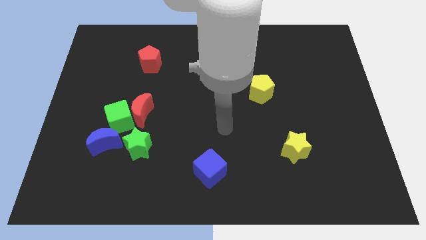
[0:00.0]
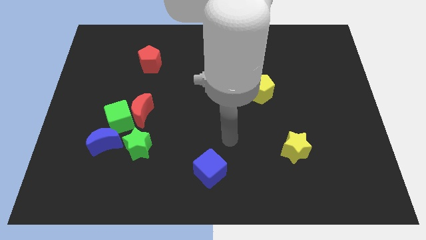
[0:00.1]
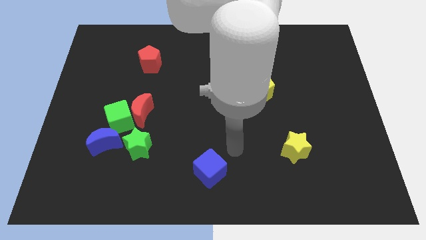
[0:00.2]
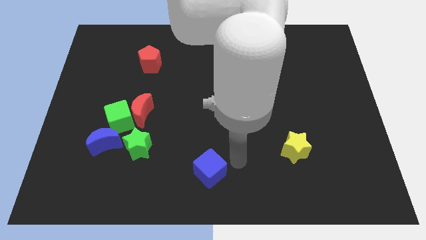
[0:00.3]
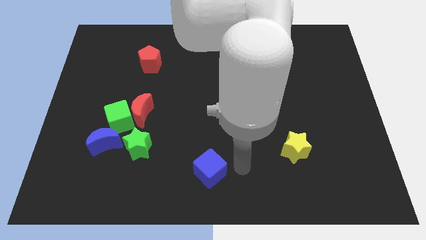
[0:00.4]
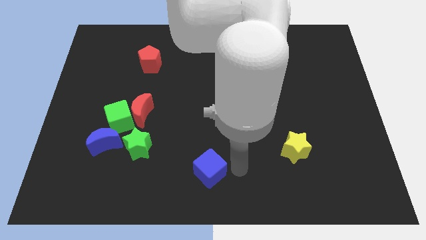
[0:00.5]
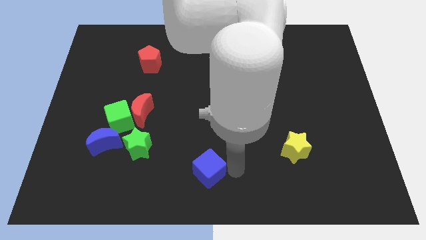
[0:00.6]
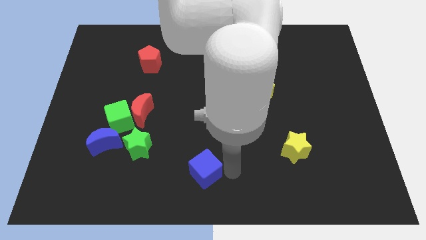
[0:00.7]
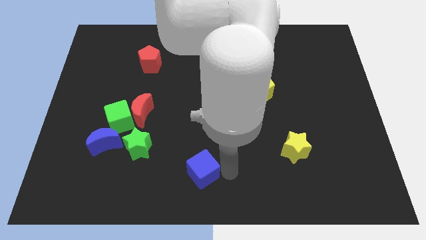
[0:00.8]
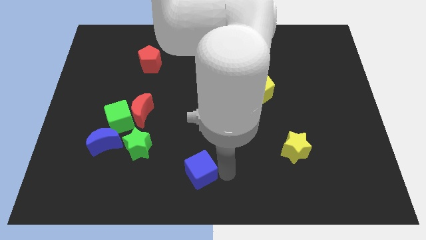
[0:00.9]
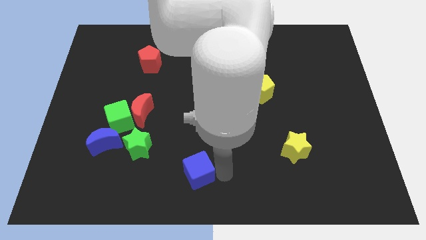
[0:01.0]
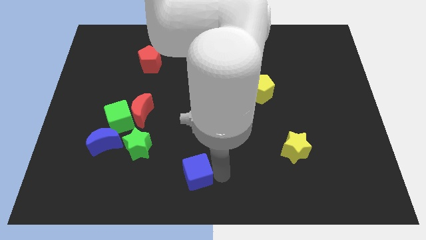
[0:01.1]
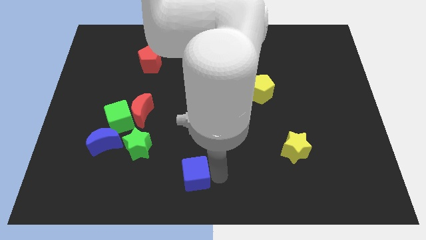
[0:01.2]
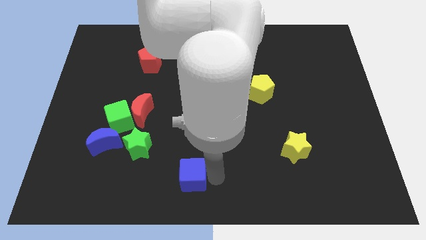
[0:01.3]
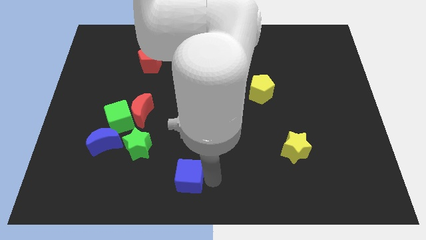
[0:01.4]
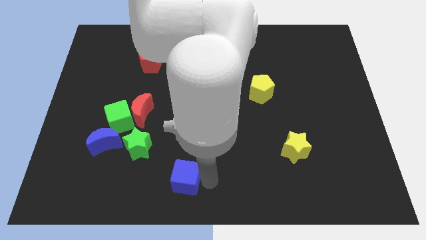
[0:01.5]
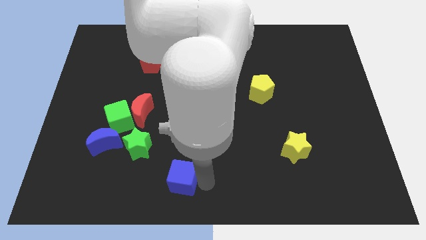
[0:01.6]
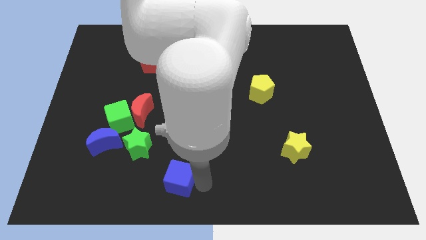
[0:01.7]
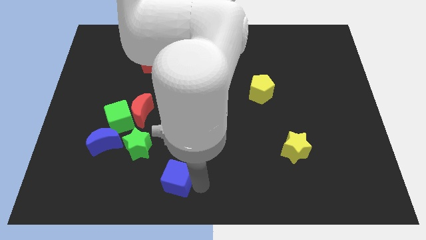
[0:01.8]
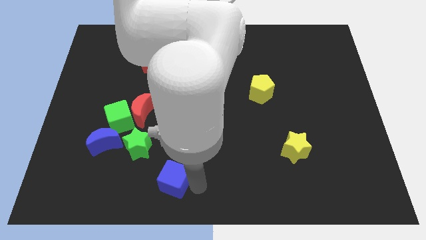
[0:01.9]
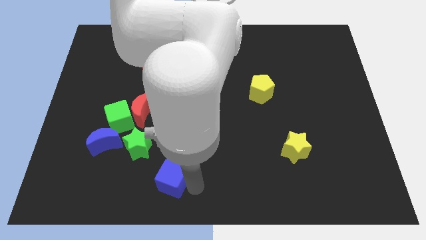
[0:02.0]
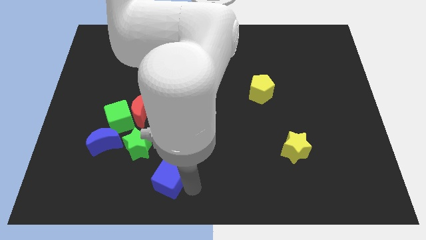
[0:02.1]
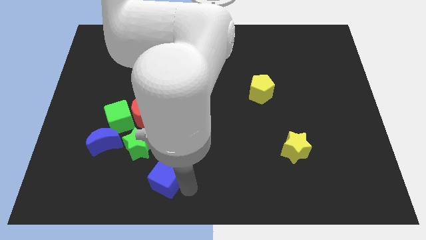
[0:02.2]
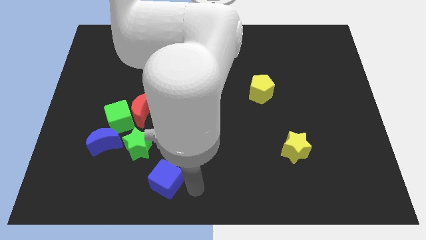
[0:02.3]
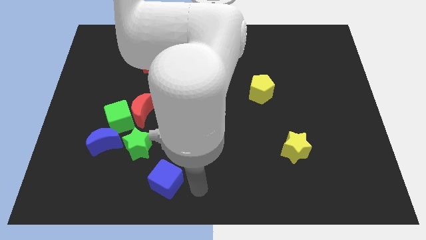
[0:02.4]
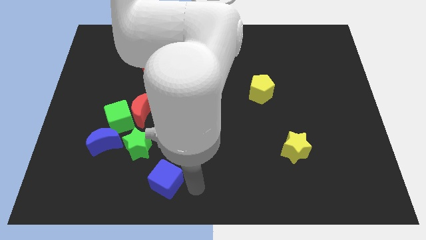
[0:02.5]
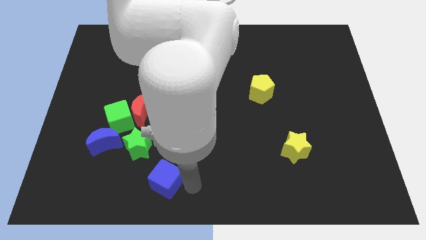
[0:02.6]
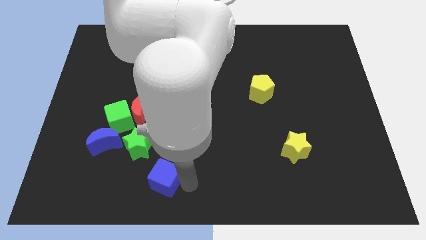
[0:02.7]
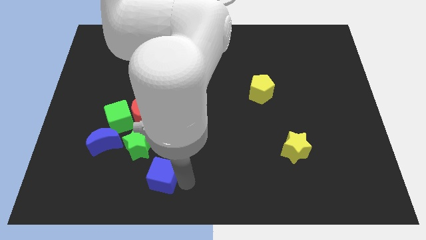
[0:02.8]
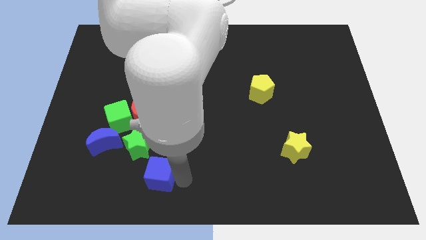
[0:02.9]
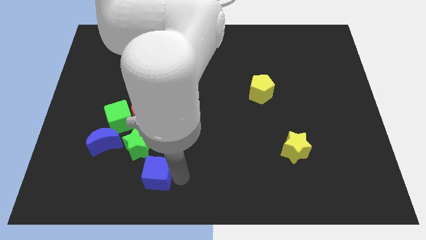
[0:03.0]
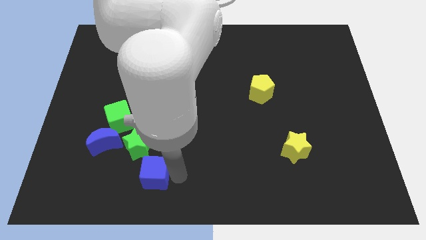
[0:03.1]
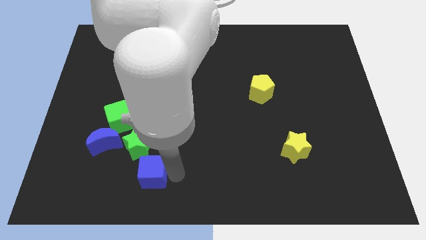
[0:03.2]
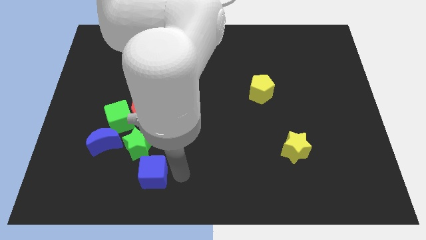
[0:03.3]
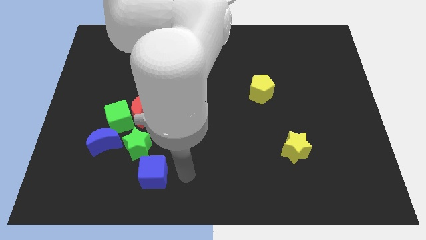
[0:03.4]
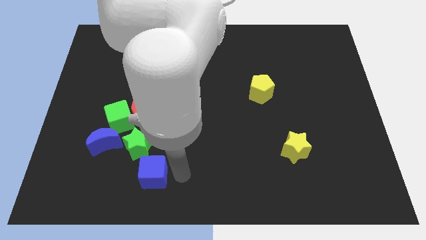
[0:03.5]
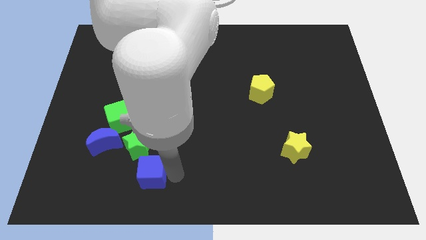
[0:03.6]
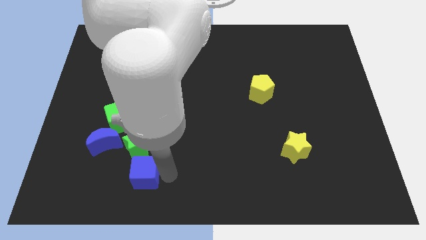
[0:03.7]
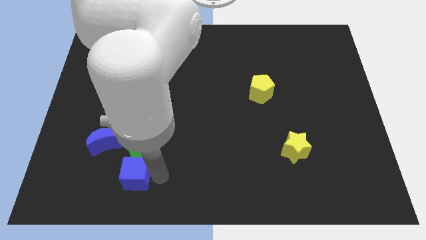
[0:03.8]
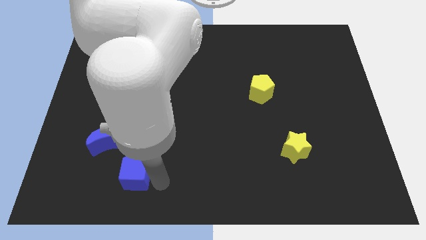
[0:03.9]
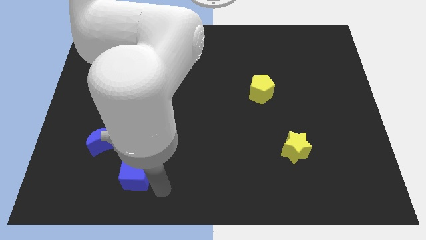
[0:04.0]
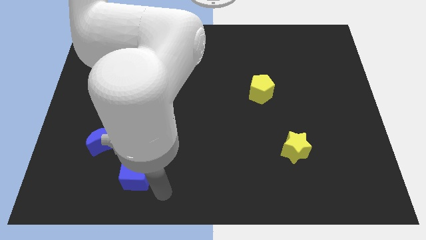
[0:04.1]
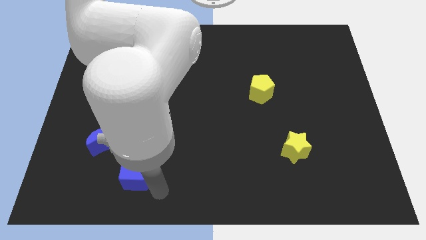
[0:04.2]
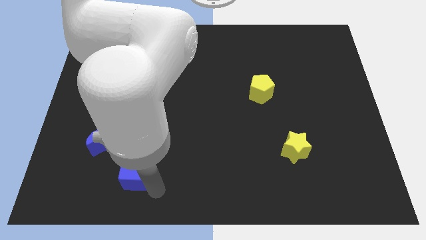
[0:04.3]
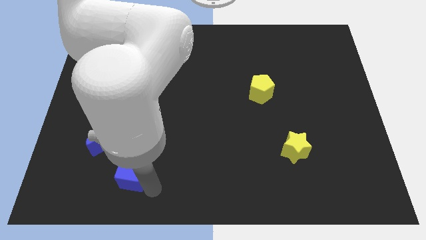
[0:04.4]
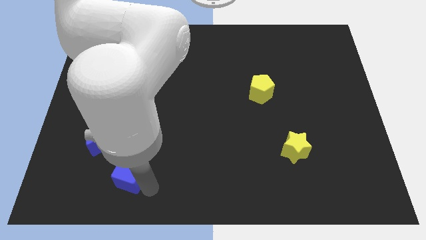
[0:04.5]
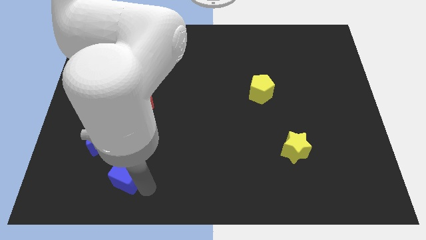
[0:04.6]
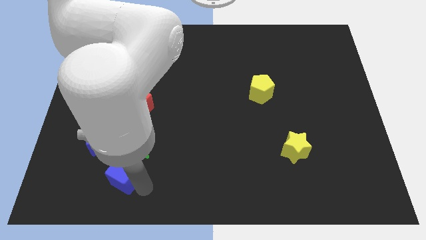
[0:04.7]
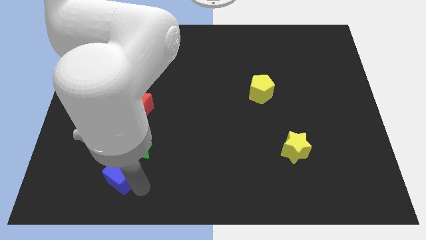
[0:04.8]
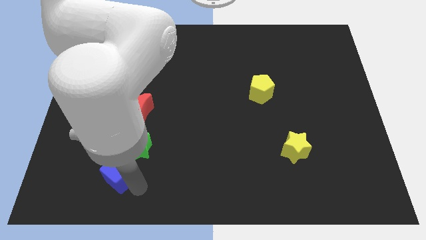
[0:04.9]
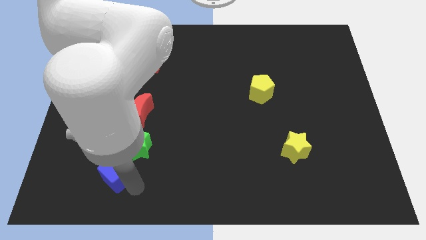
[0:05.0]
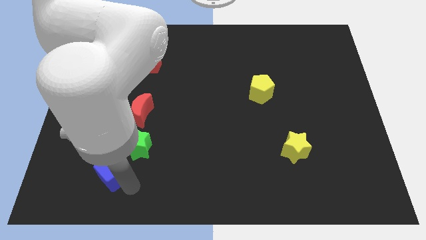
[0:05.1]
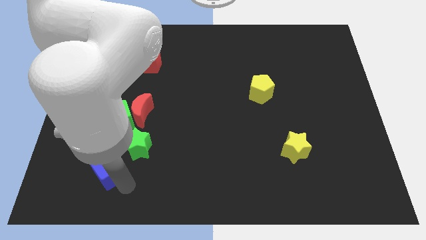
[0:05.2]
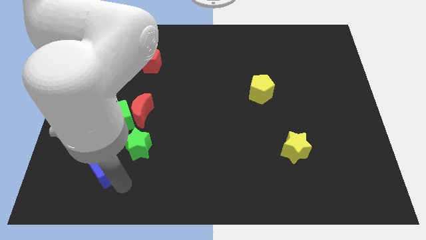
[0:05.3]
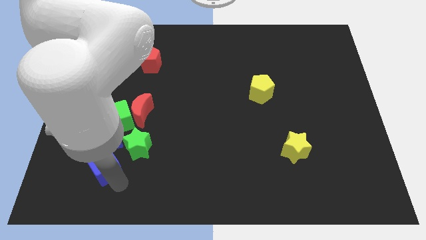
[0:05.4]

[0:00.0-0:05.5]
put the blue cube to the blue moon

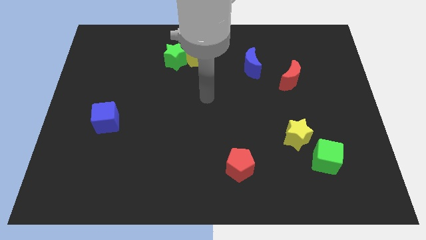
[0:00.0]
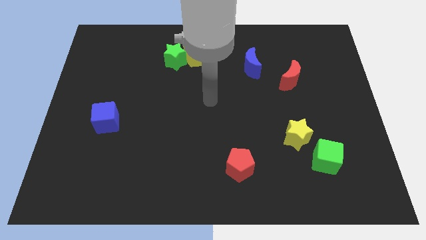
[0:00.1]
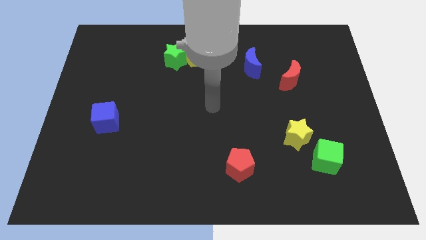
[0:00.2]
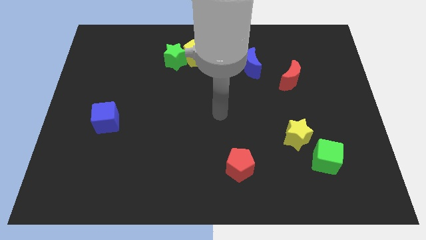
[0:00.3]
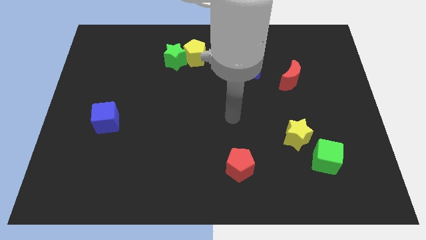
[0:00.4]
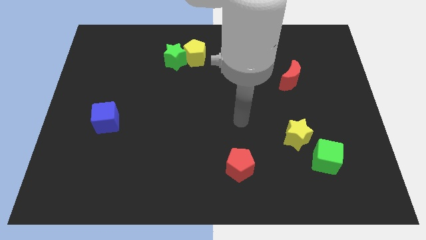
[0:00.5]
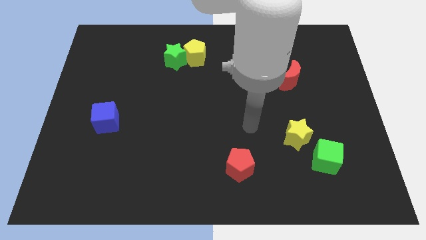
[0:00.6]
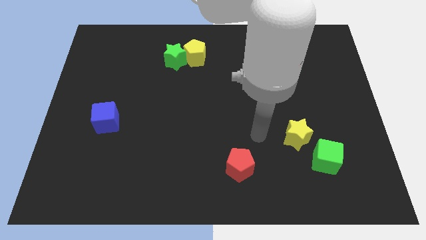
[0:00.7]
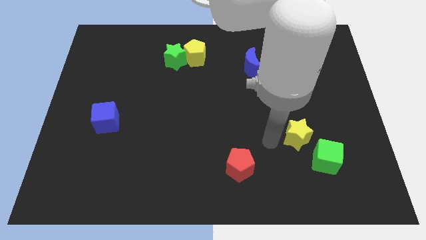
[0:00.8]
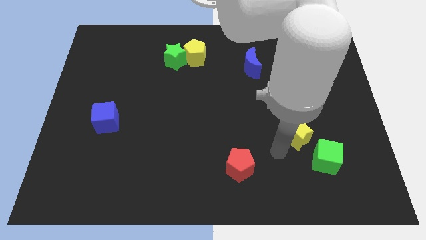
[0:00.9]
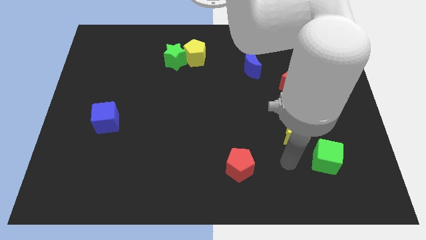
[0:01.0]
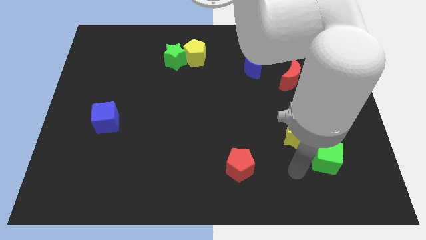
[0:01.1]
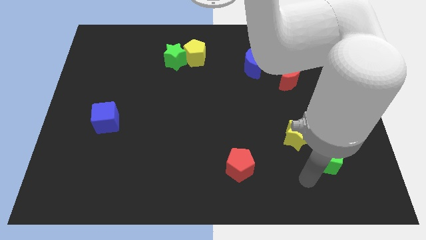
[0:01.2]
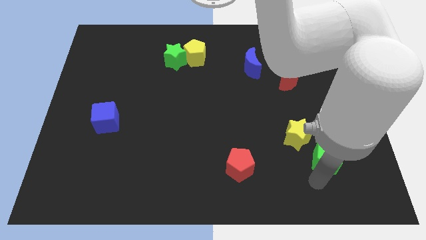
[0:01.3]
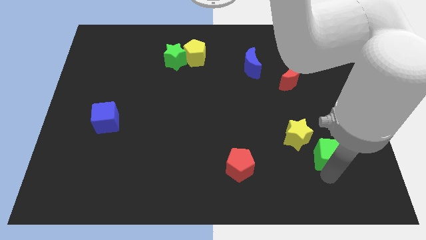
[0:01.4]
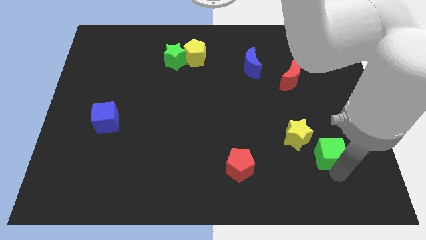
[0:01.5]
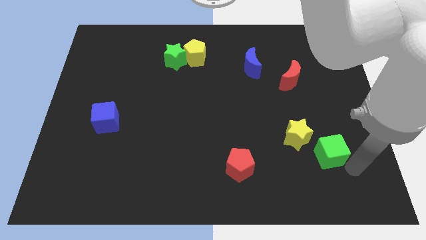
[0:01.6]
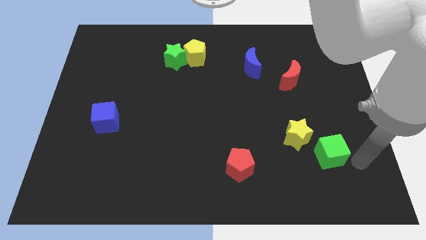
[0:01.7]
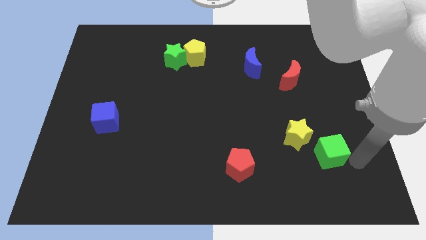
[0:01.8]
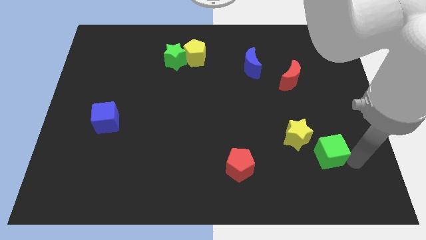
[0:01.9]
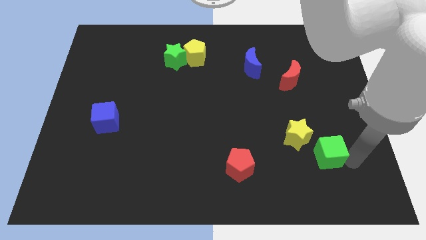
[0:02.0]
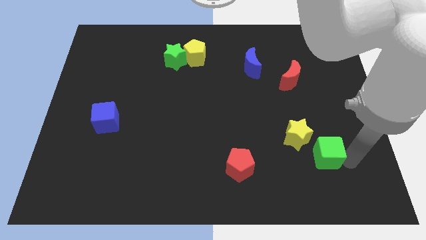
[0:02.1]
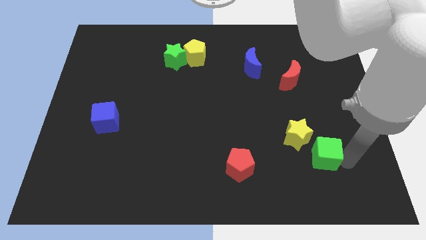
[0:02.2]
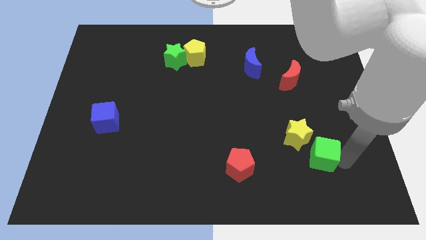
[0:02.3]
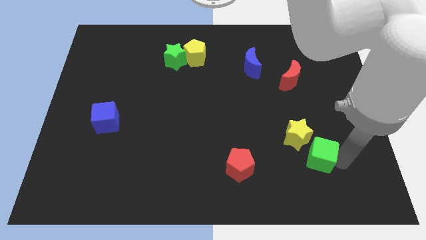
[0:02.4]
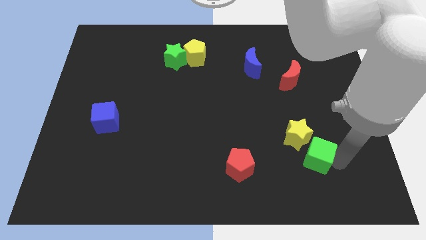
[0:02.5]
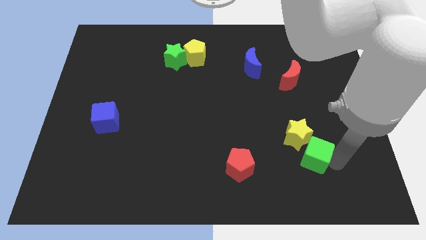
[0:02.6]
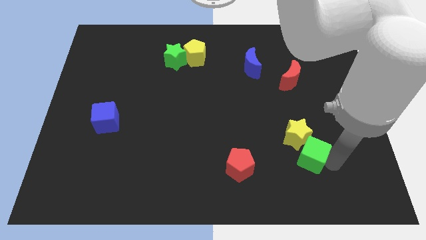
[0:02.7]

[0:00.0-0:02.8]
move the green cube close to the yellow star
